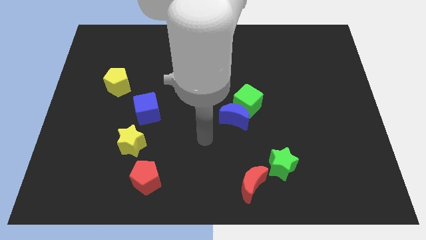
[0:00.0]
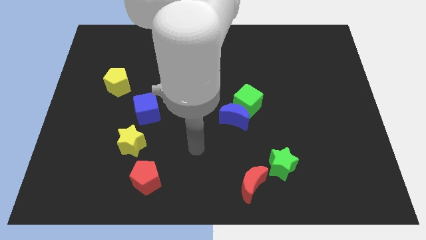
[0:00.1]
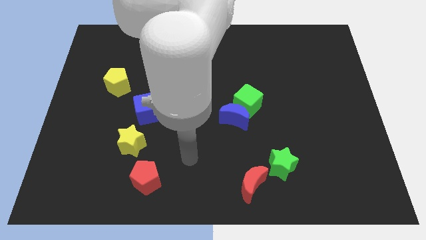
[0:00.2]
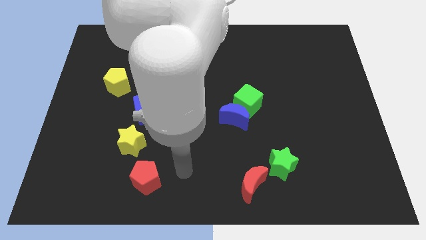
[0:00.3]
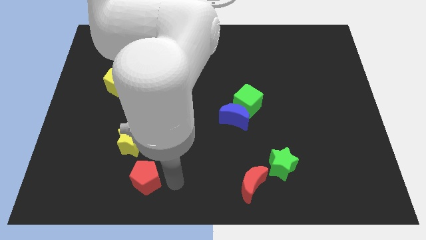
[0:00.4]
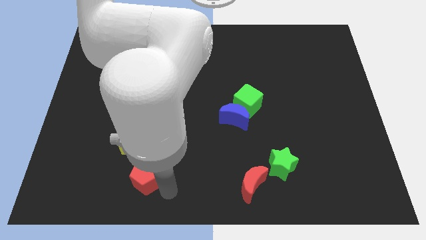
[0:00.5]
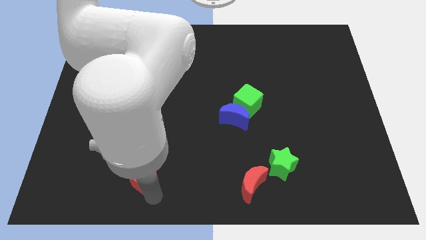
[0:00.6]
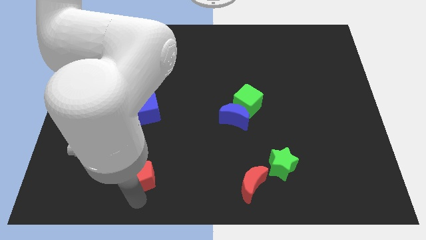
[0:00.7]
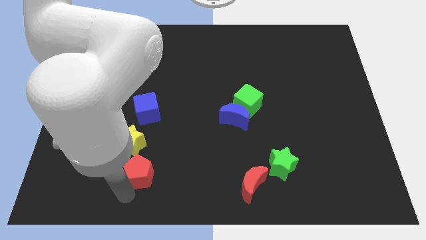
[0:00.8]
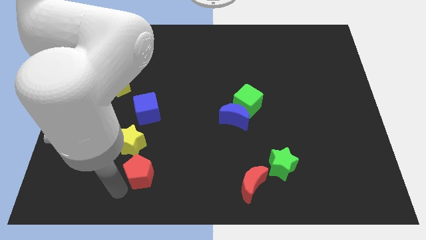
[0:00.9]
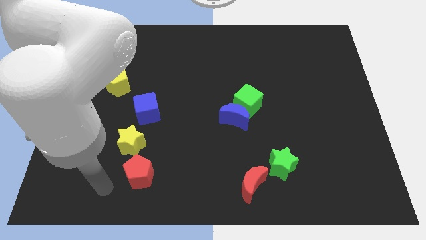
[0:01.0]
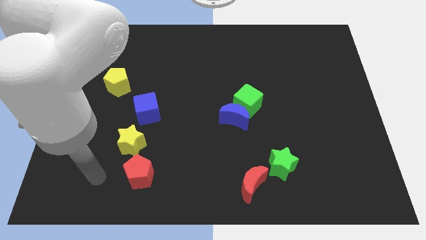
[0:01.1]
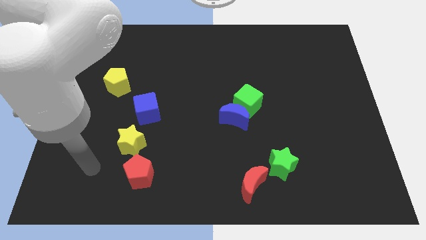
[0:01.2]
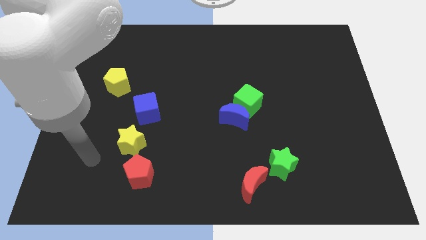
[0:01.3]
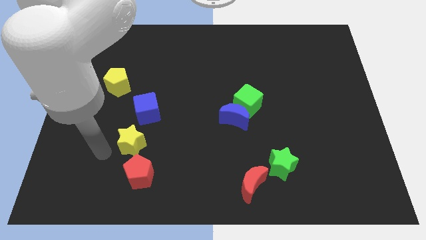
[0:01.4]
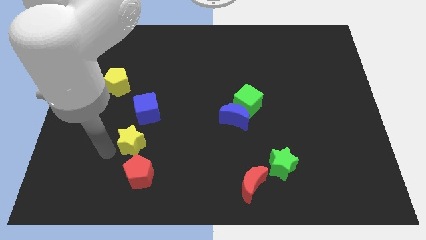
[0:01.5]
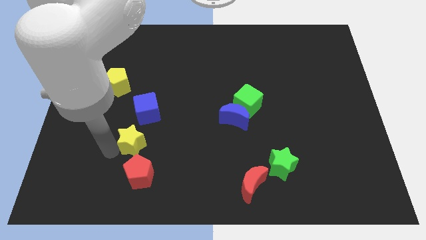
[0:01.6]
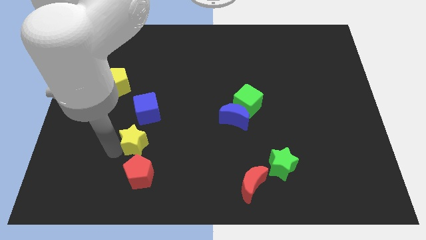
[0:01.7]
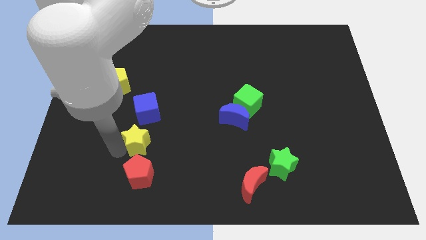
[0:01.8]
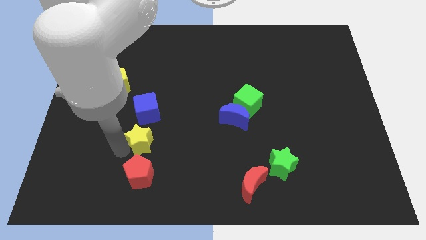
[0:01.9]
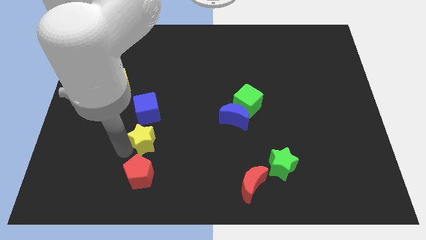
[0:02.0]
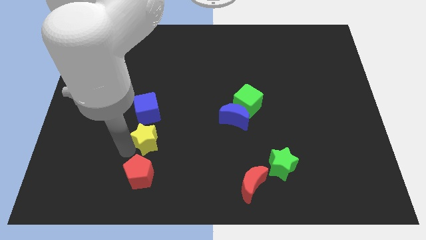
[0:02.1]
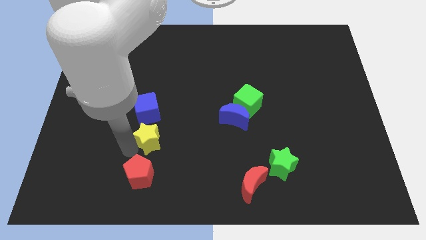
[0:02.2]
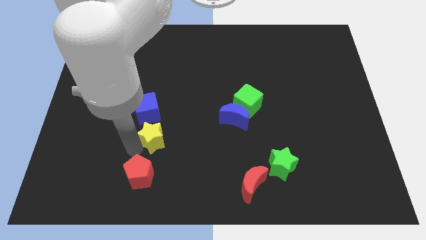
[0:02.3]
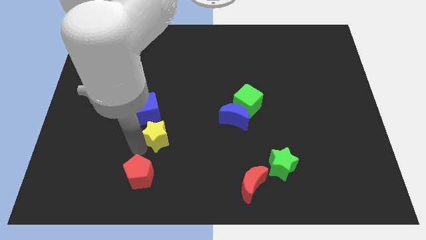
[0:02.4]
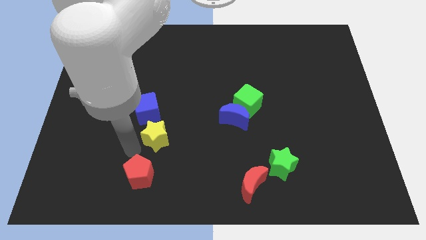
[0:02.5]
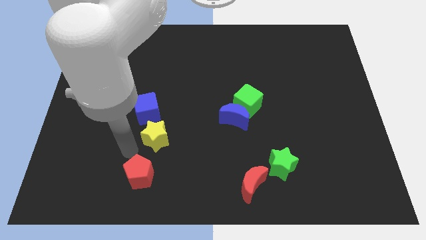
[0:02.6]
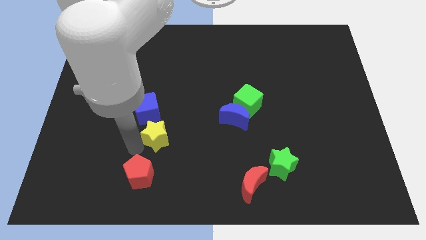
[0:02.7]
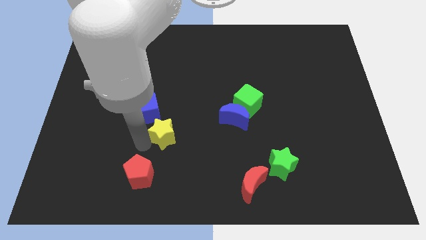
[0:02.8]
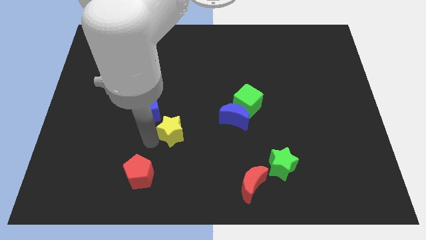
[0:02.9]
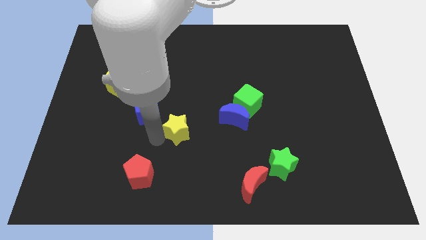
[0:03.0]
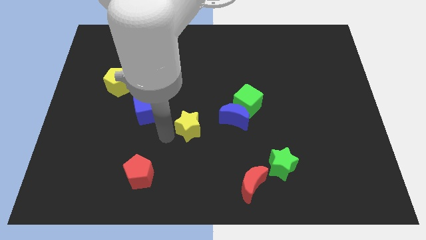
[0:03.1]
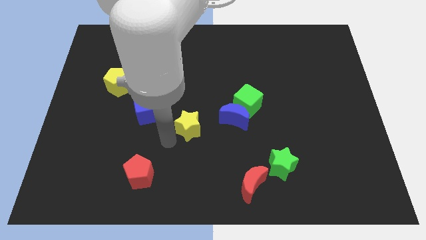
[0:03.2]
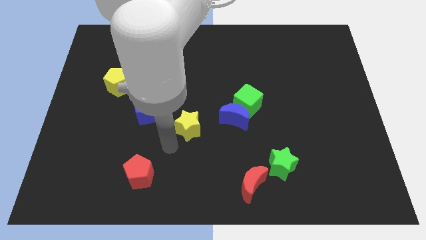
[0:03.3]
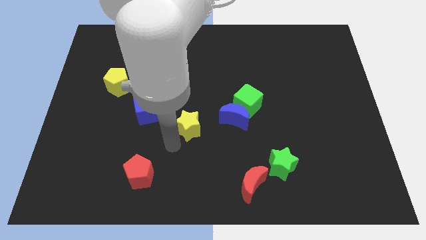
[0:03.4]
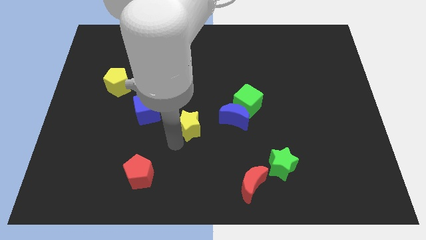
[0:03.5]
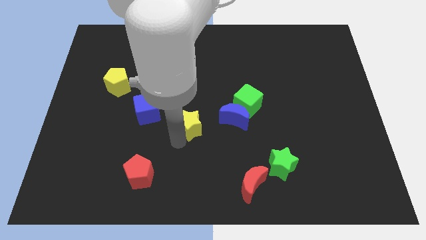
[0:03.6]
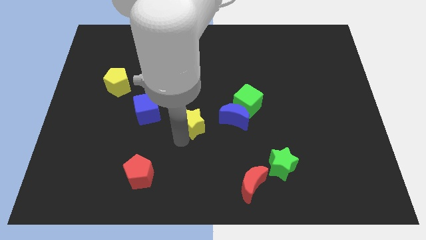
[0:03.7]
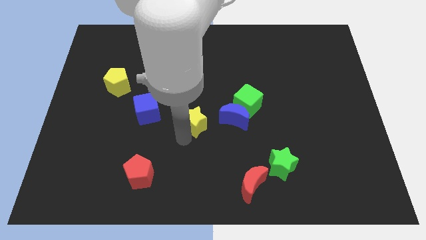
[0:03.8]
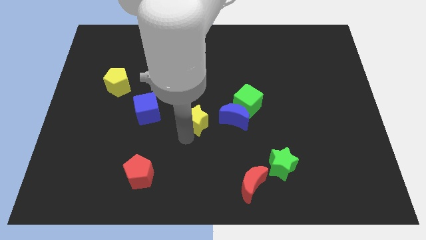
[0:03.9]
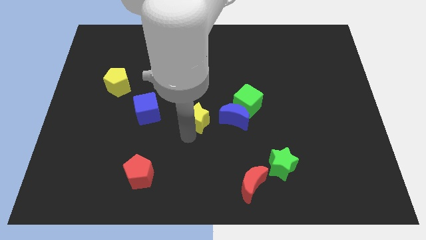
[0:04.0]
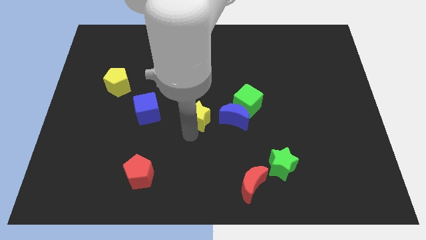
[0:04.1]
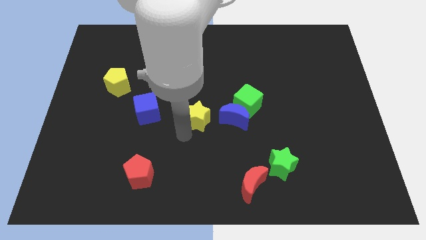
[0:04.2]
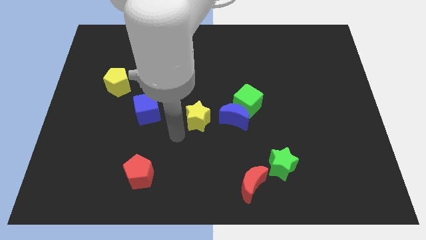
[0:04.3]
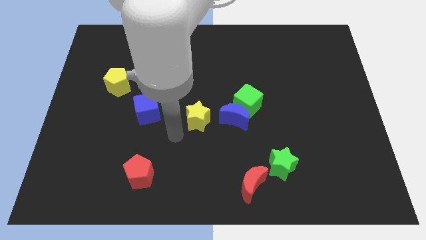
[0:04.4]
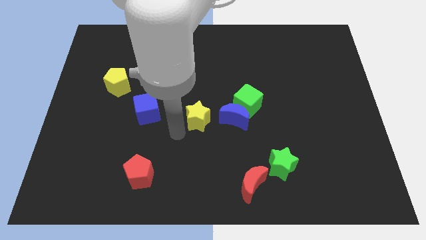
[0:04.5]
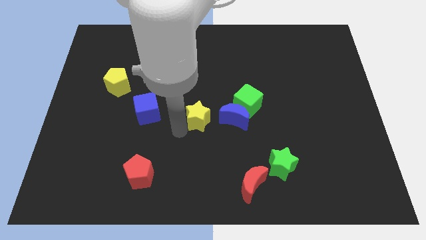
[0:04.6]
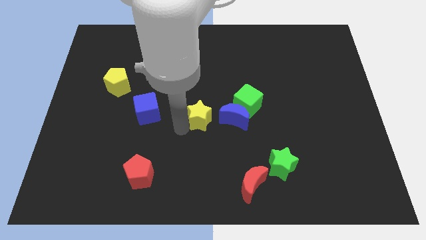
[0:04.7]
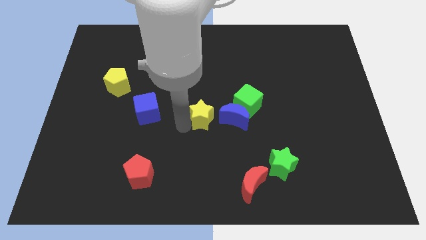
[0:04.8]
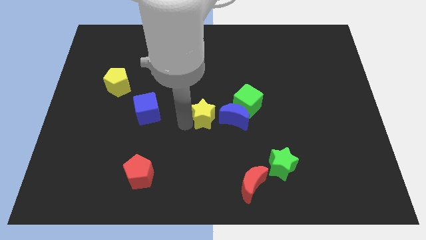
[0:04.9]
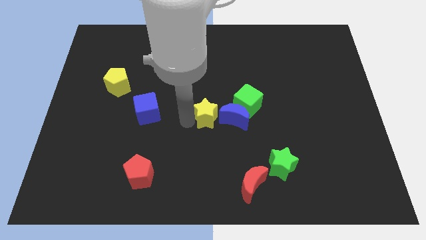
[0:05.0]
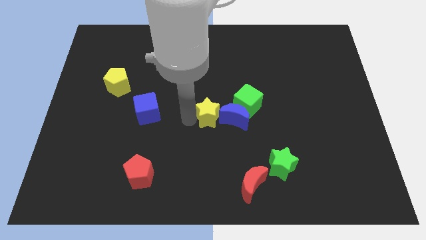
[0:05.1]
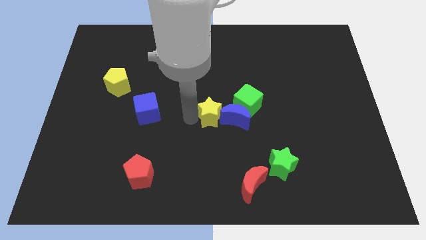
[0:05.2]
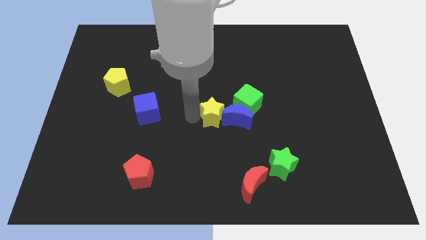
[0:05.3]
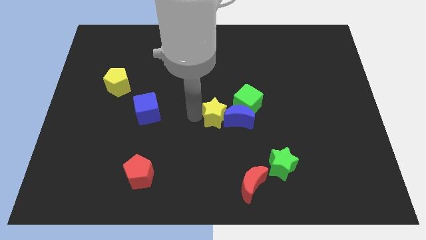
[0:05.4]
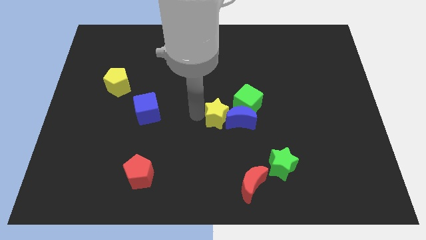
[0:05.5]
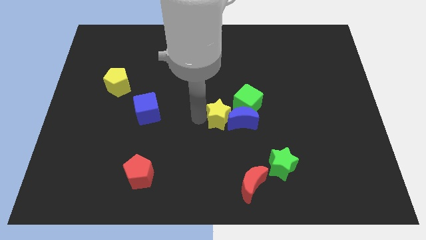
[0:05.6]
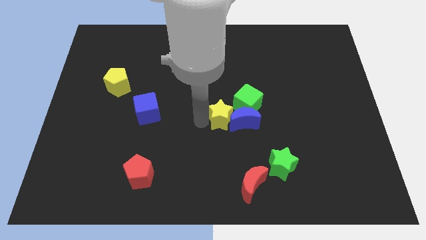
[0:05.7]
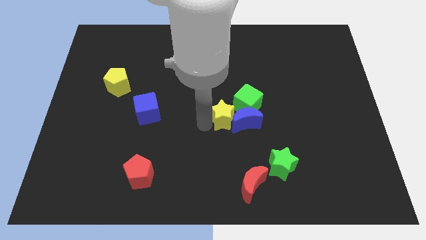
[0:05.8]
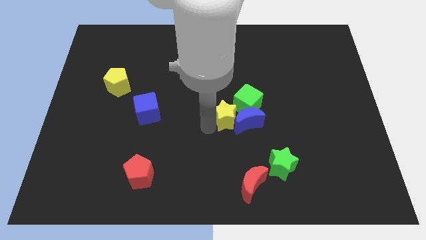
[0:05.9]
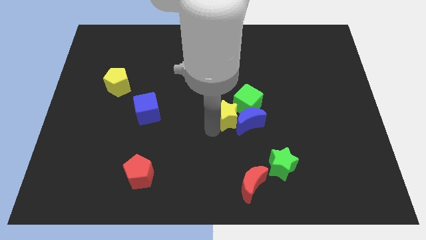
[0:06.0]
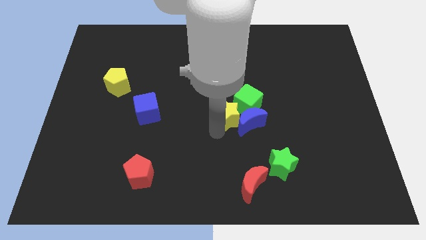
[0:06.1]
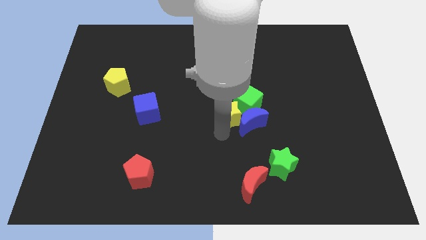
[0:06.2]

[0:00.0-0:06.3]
slide the yellow star next to the green cube

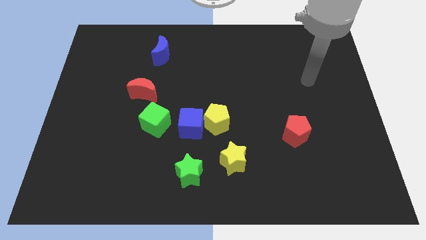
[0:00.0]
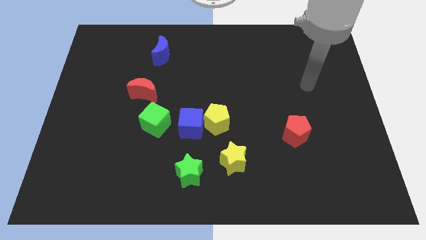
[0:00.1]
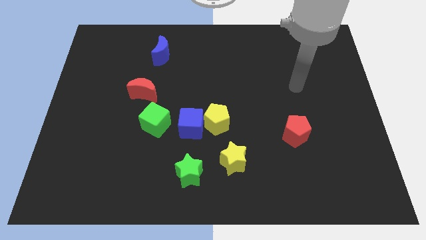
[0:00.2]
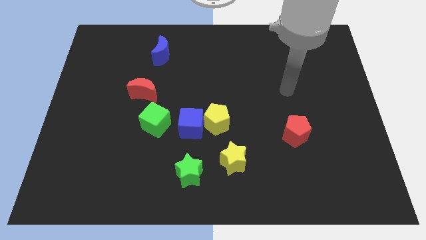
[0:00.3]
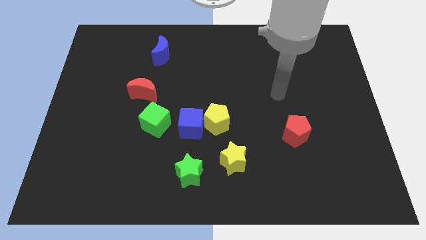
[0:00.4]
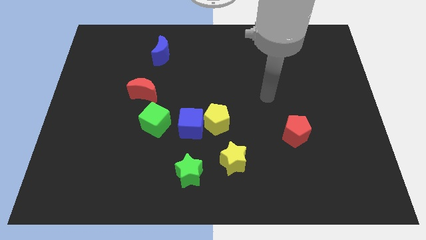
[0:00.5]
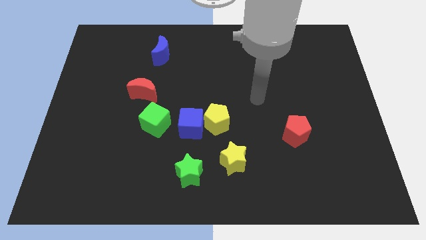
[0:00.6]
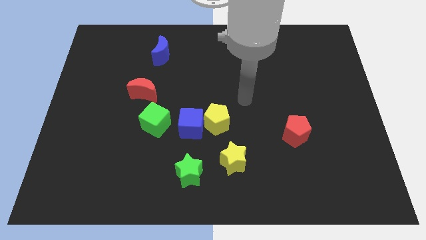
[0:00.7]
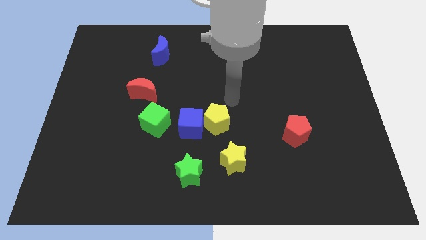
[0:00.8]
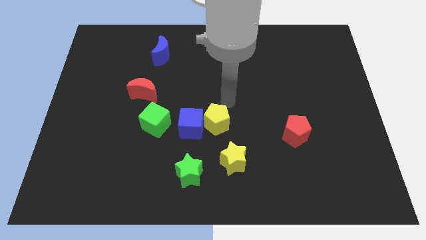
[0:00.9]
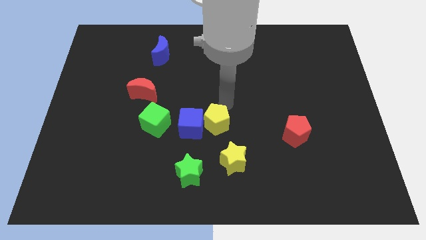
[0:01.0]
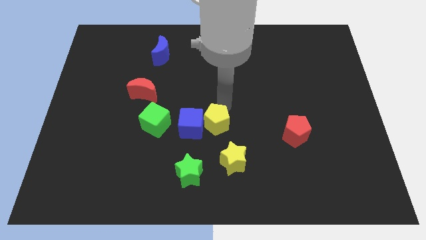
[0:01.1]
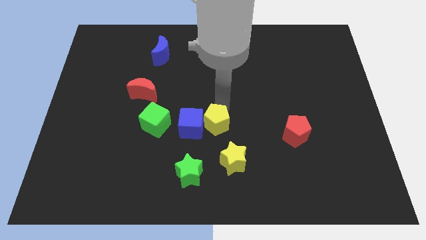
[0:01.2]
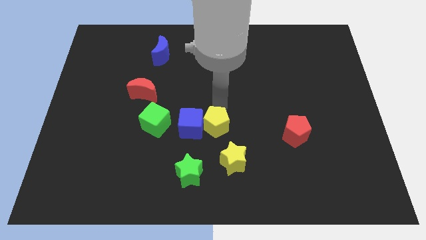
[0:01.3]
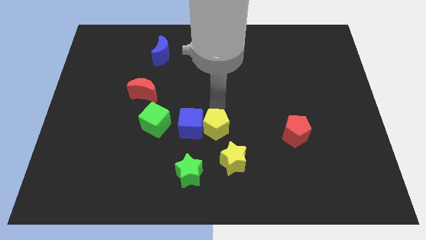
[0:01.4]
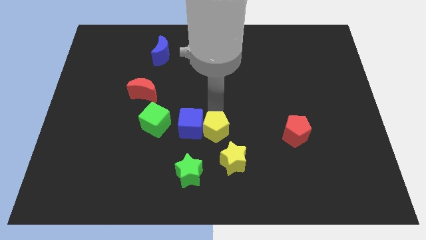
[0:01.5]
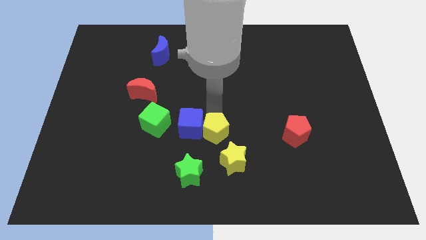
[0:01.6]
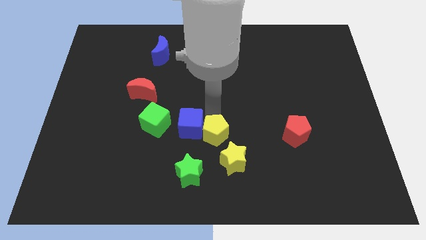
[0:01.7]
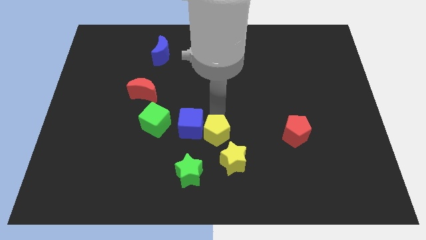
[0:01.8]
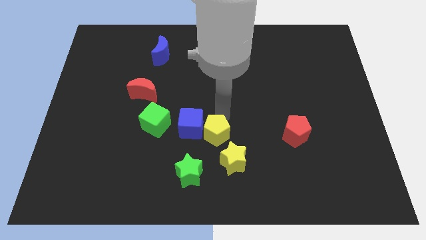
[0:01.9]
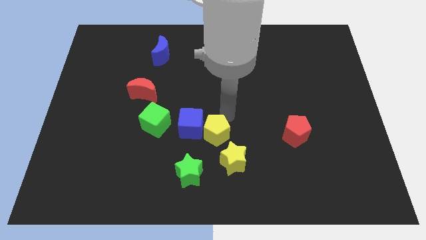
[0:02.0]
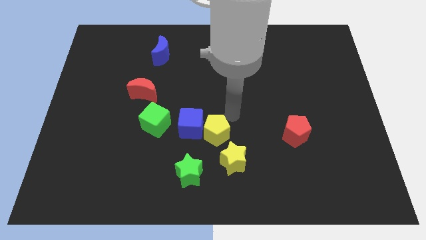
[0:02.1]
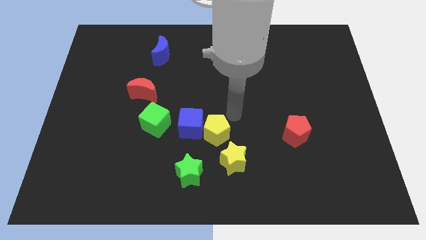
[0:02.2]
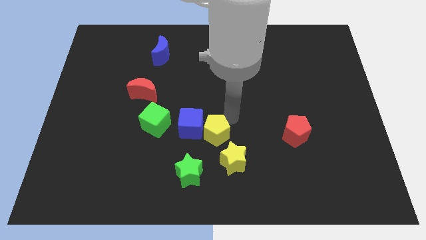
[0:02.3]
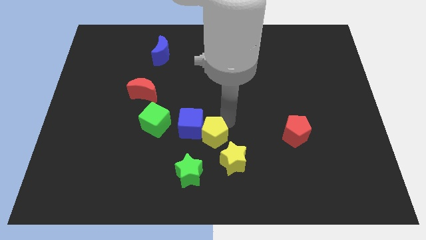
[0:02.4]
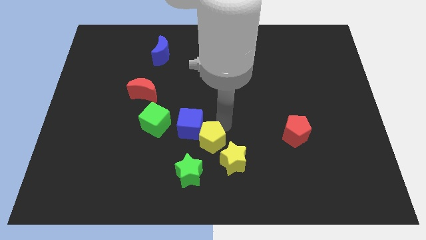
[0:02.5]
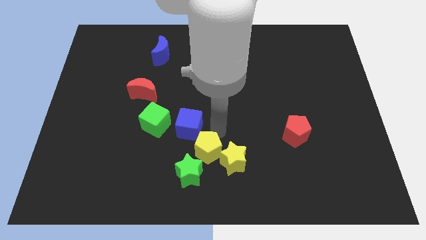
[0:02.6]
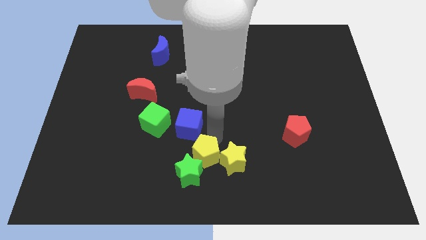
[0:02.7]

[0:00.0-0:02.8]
push the yellow pentagon towards the green star
